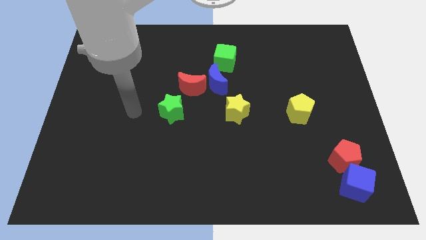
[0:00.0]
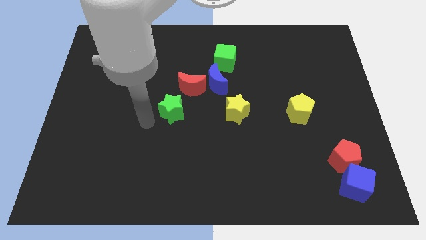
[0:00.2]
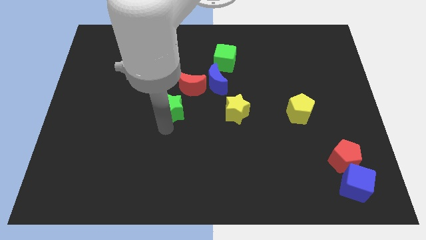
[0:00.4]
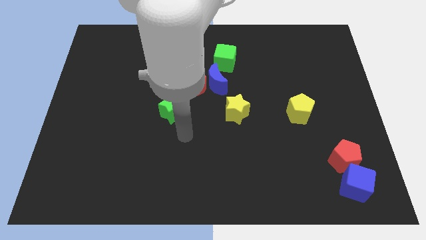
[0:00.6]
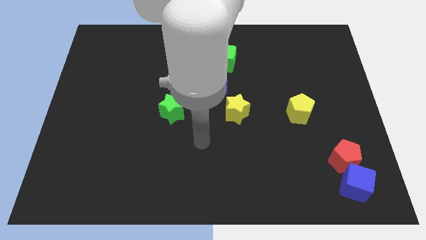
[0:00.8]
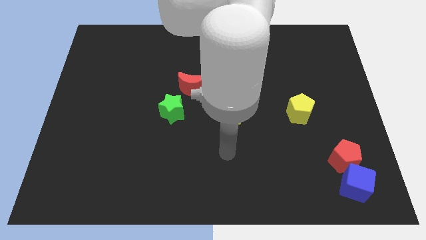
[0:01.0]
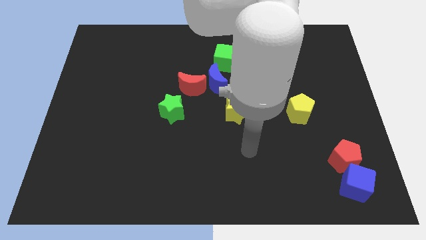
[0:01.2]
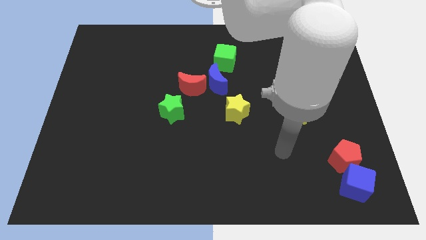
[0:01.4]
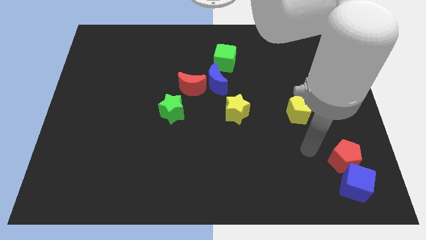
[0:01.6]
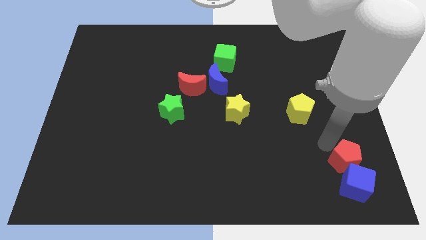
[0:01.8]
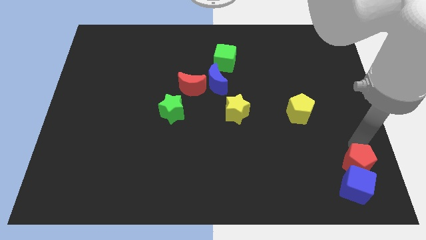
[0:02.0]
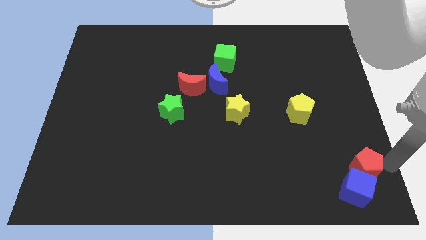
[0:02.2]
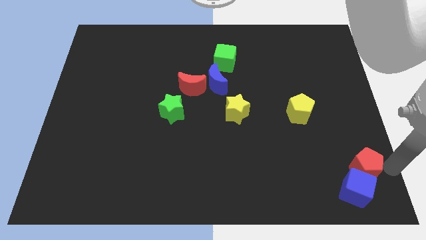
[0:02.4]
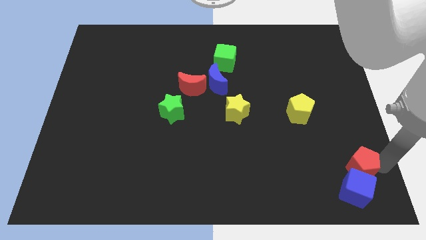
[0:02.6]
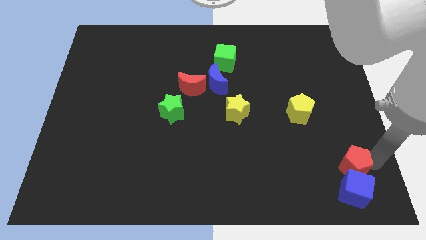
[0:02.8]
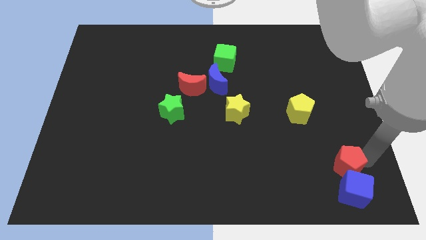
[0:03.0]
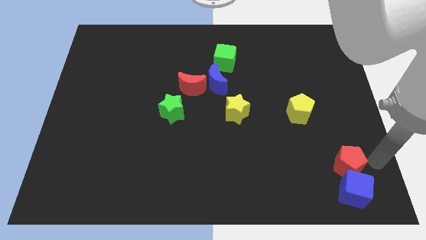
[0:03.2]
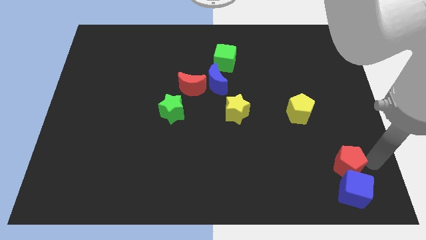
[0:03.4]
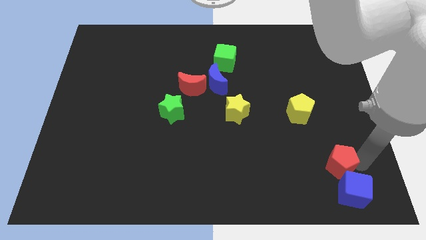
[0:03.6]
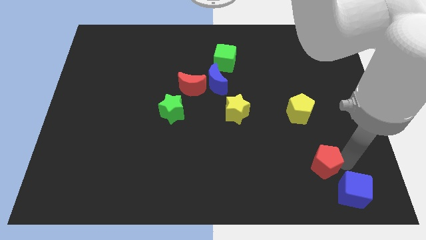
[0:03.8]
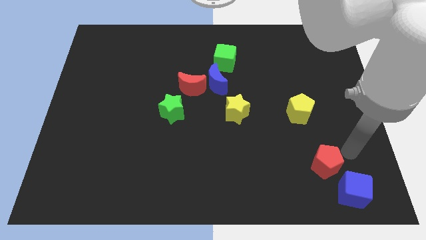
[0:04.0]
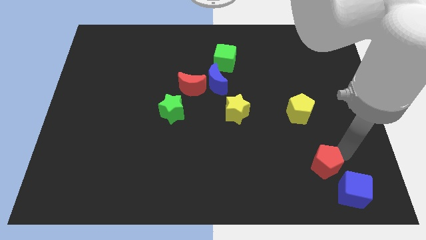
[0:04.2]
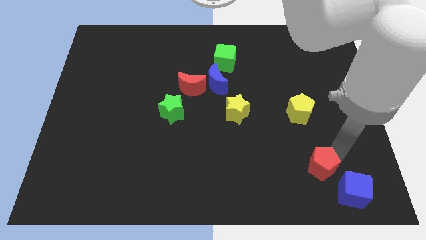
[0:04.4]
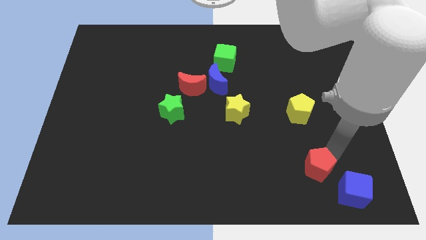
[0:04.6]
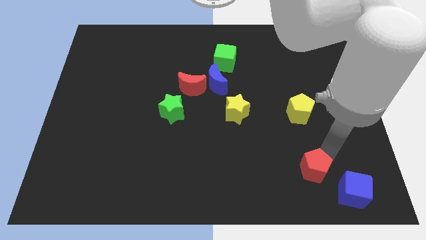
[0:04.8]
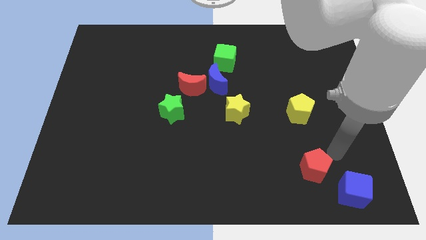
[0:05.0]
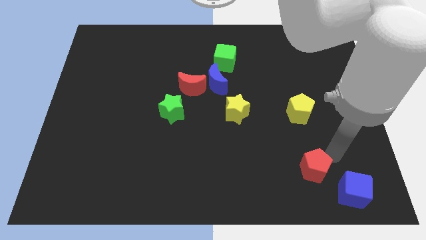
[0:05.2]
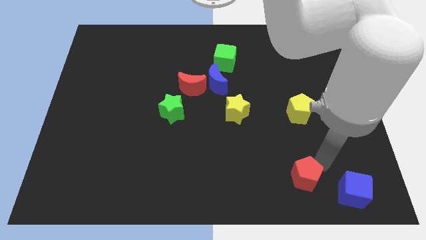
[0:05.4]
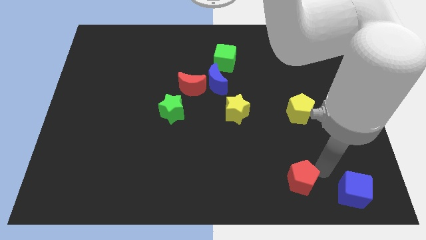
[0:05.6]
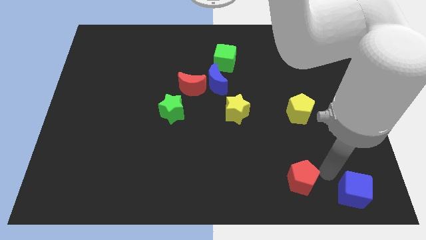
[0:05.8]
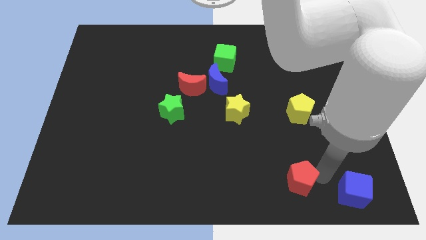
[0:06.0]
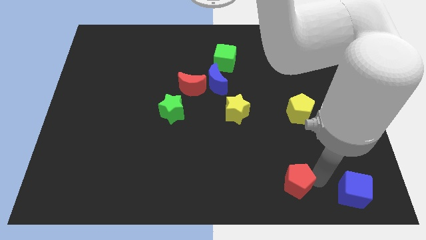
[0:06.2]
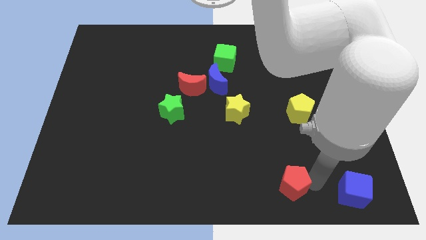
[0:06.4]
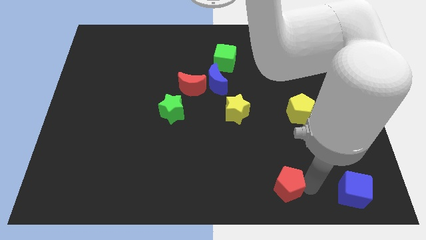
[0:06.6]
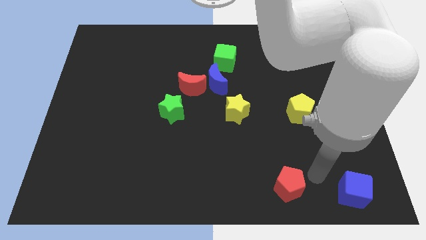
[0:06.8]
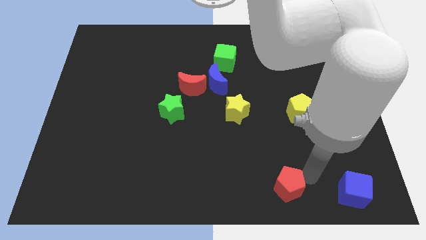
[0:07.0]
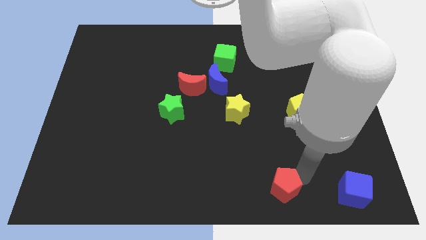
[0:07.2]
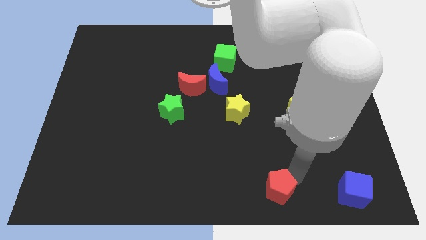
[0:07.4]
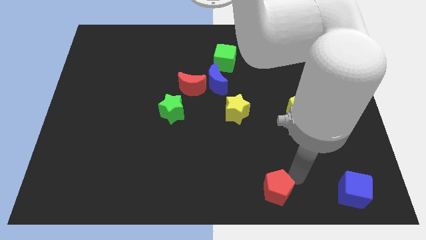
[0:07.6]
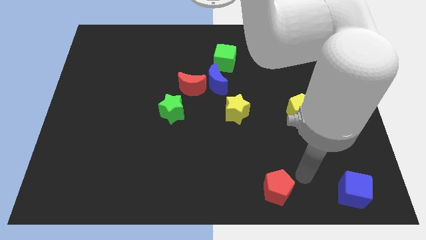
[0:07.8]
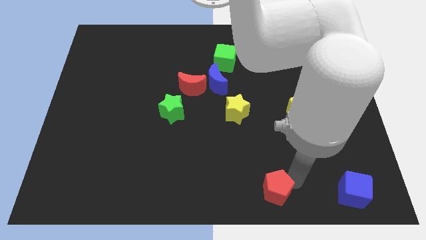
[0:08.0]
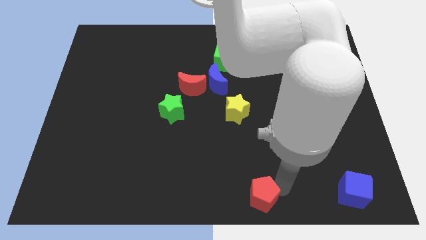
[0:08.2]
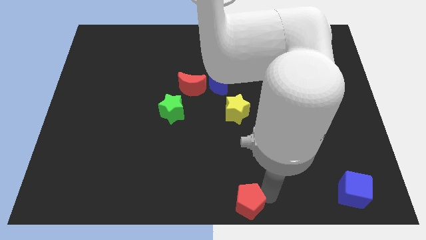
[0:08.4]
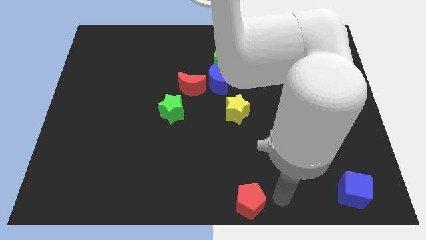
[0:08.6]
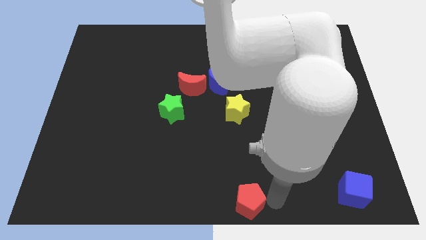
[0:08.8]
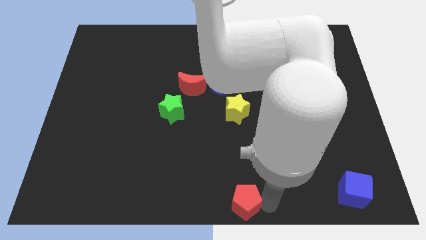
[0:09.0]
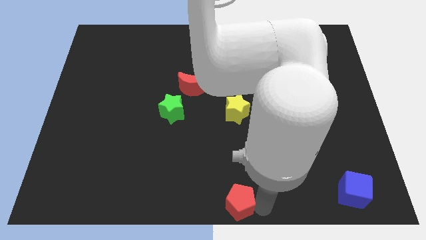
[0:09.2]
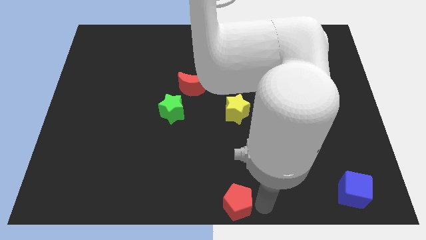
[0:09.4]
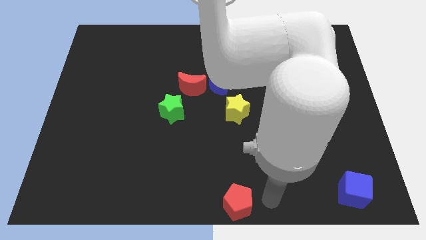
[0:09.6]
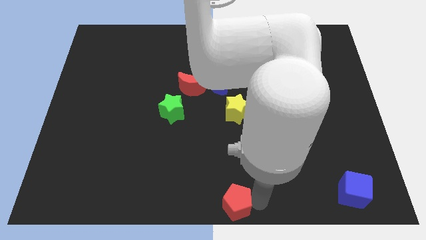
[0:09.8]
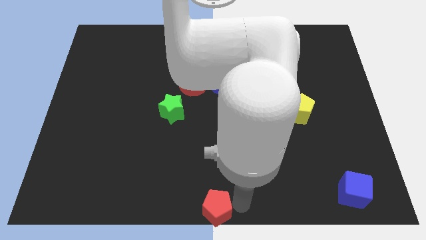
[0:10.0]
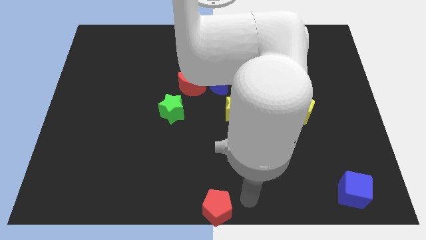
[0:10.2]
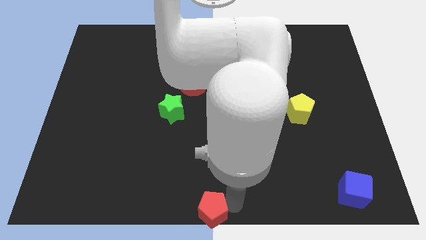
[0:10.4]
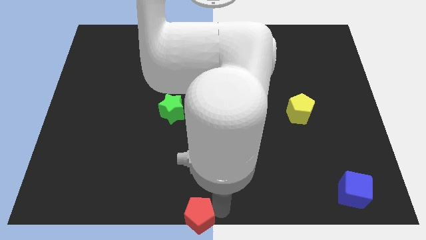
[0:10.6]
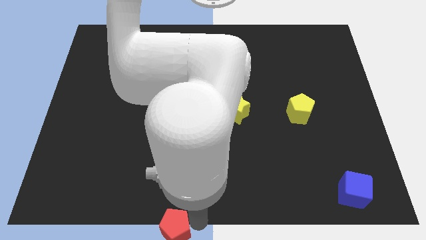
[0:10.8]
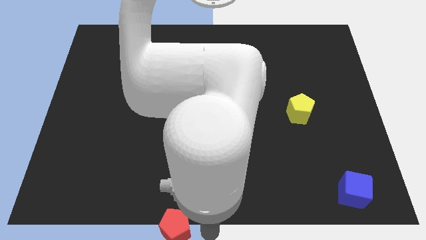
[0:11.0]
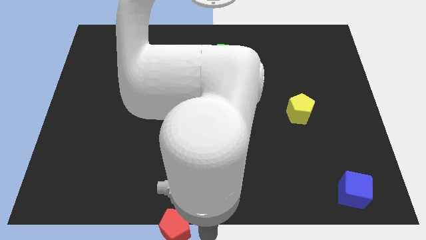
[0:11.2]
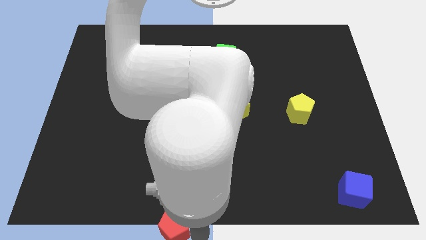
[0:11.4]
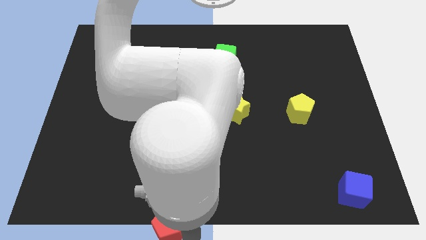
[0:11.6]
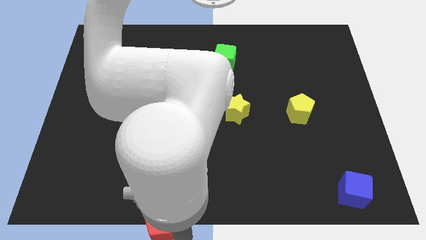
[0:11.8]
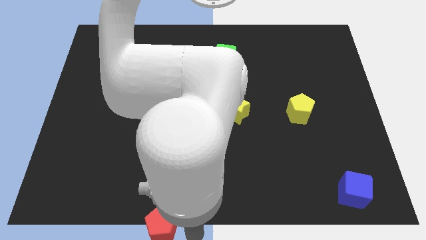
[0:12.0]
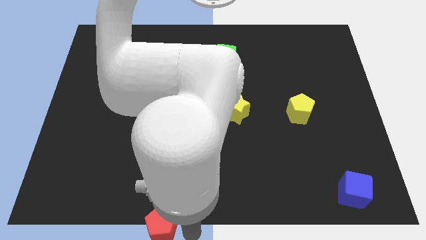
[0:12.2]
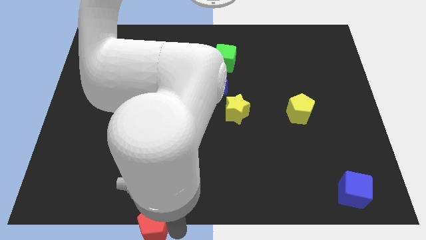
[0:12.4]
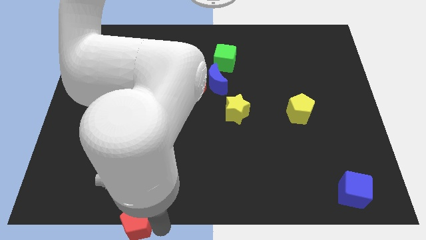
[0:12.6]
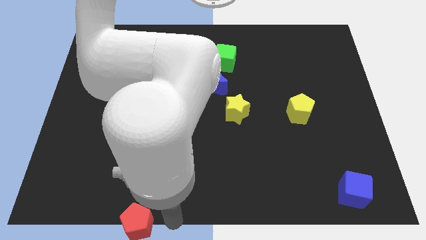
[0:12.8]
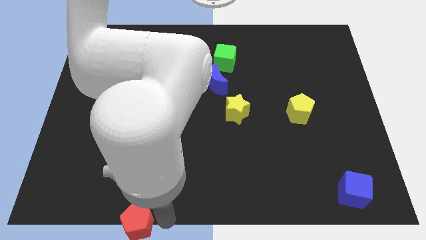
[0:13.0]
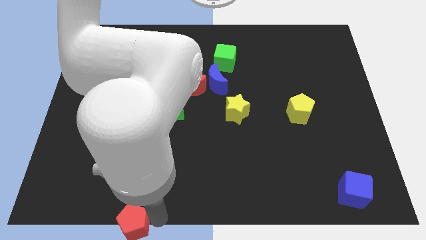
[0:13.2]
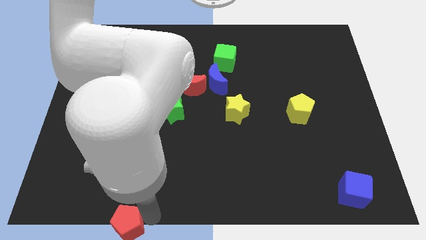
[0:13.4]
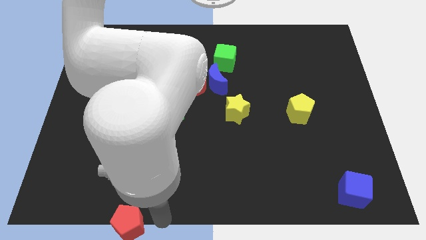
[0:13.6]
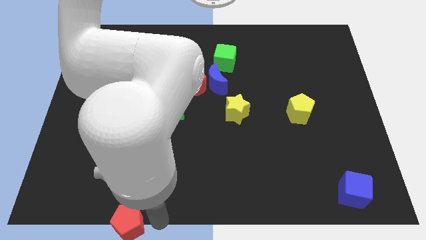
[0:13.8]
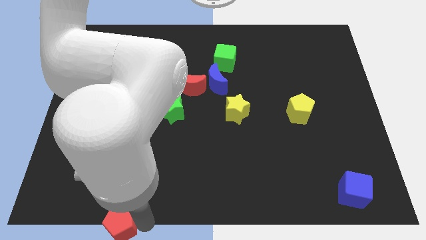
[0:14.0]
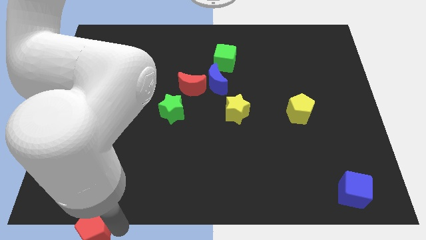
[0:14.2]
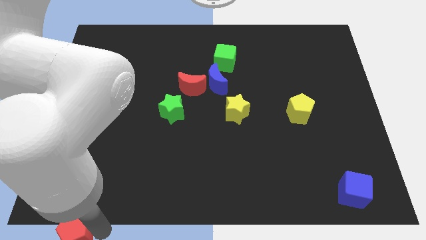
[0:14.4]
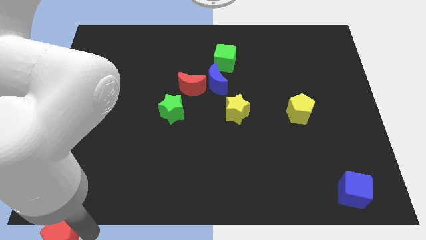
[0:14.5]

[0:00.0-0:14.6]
slide the red pentagon to the bottom left of the board
